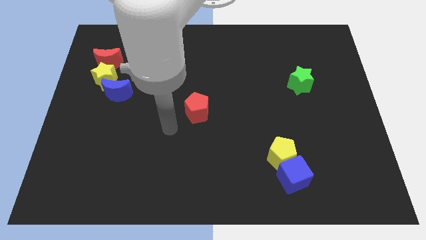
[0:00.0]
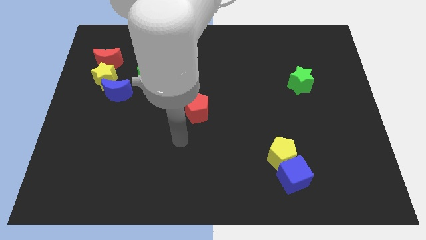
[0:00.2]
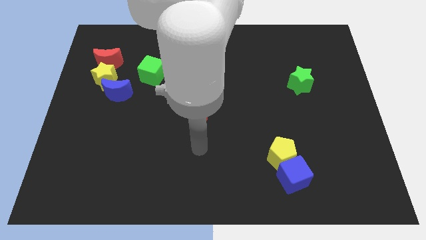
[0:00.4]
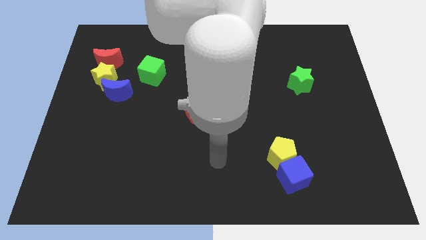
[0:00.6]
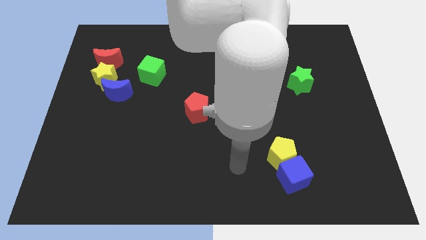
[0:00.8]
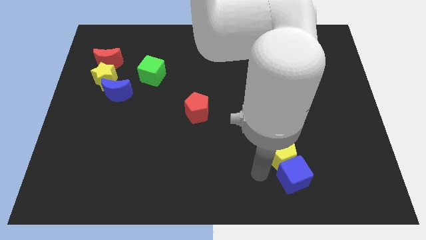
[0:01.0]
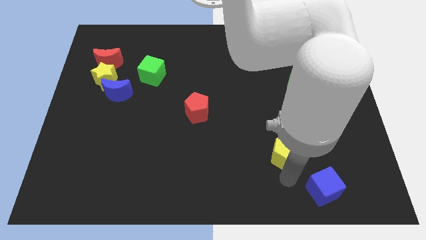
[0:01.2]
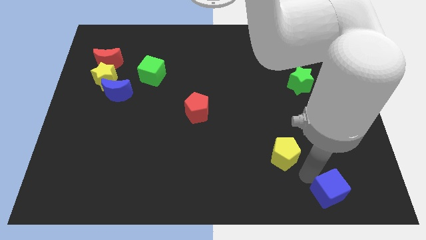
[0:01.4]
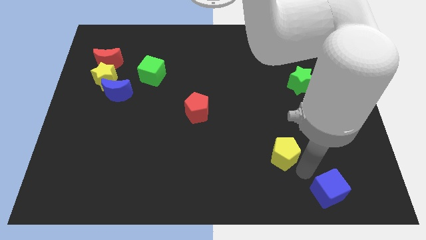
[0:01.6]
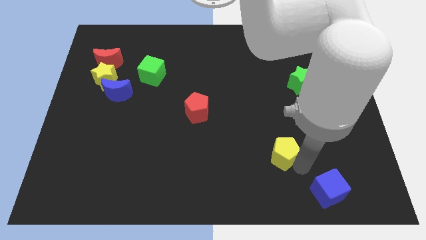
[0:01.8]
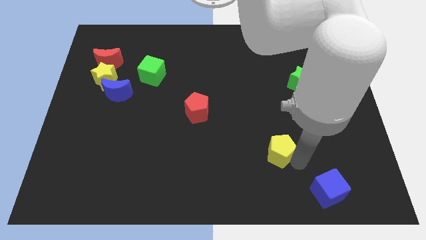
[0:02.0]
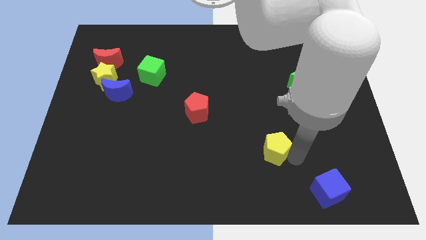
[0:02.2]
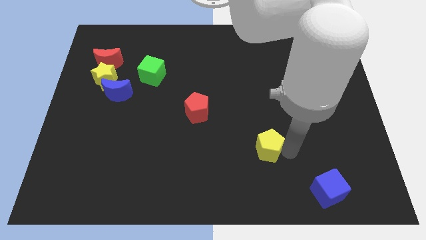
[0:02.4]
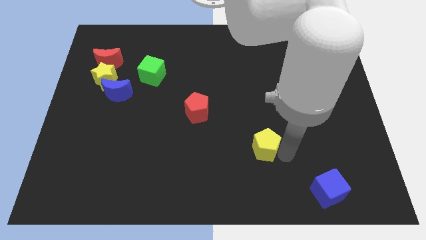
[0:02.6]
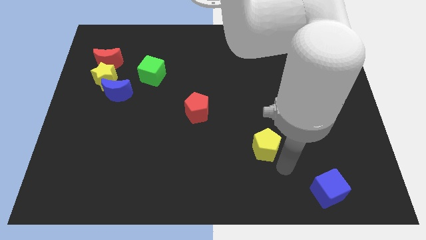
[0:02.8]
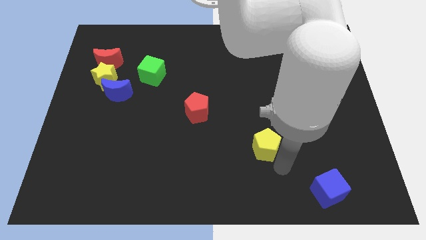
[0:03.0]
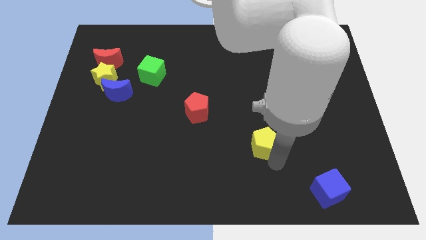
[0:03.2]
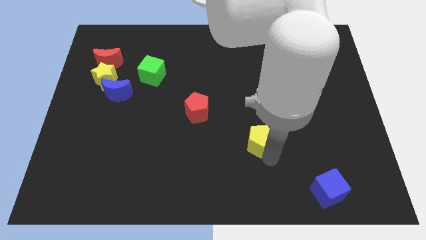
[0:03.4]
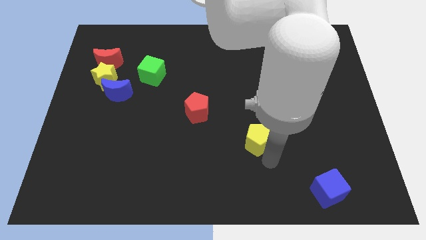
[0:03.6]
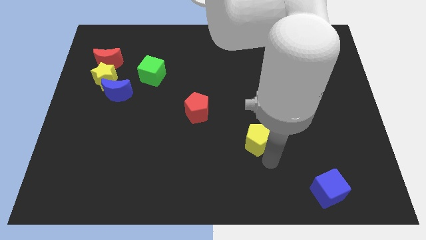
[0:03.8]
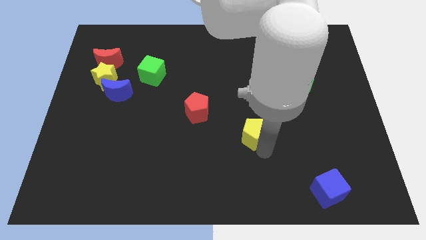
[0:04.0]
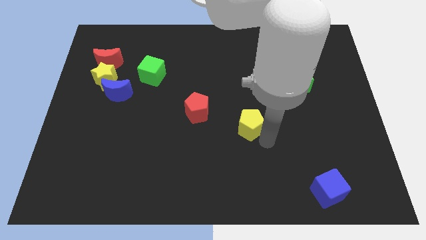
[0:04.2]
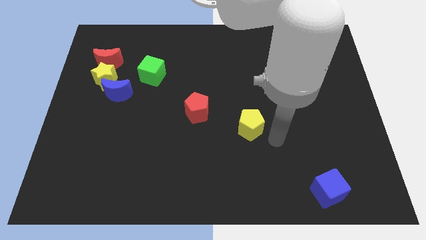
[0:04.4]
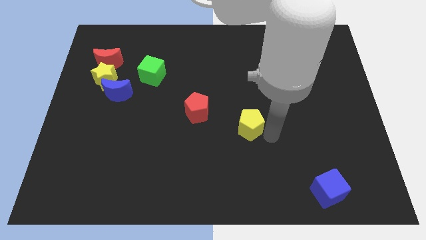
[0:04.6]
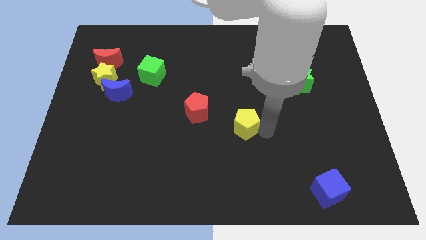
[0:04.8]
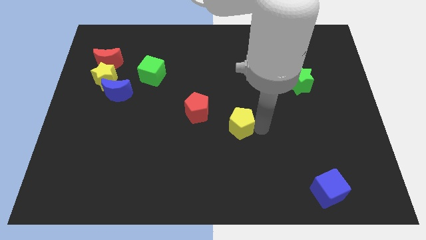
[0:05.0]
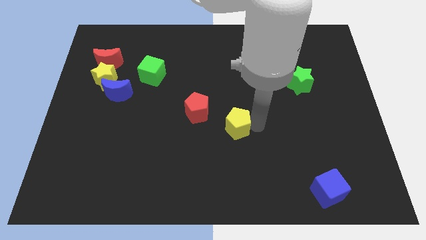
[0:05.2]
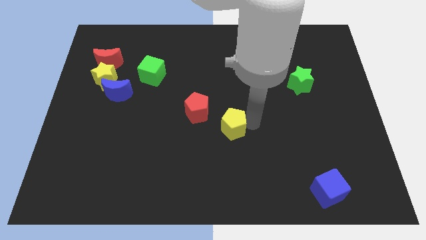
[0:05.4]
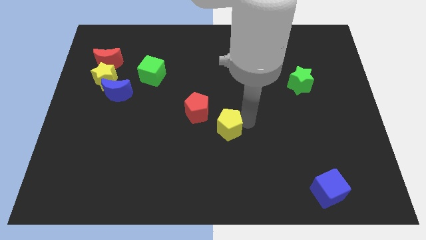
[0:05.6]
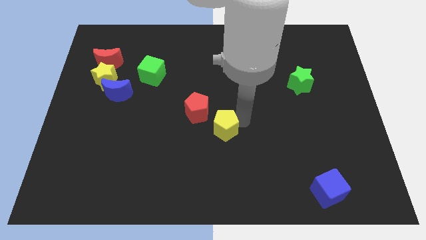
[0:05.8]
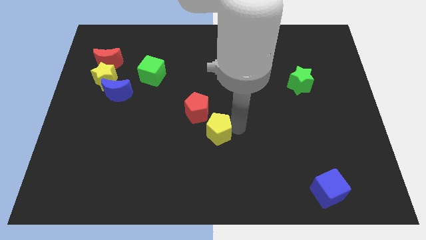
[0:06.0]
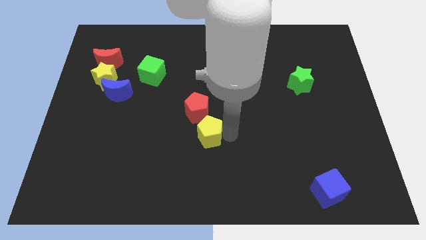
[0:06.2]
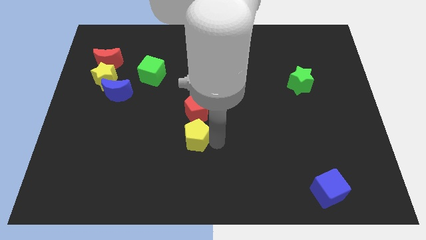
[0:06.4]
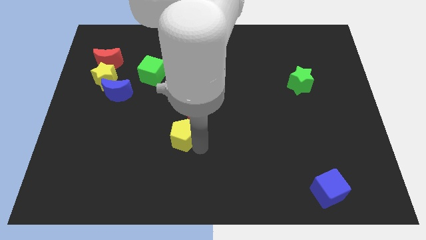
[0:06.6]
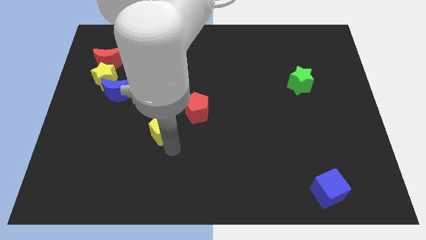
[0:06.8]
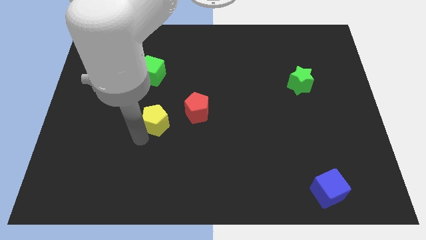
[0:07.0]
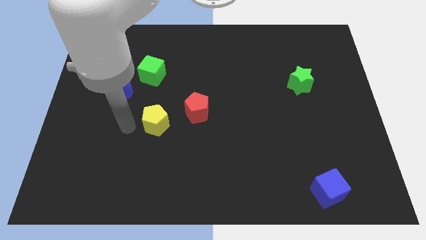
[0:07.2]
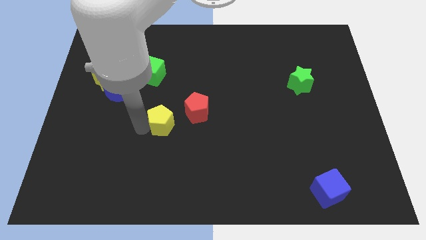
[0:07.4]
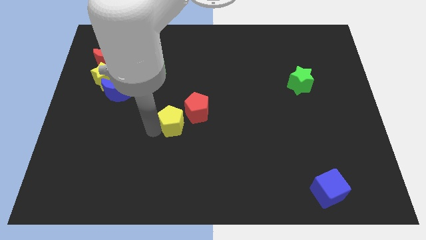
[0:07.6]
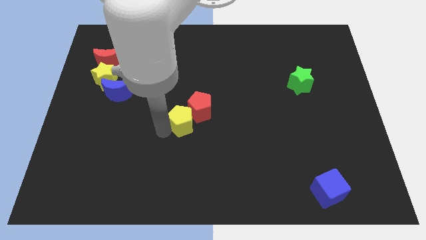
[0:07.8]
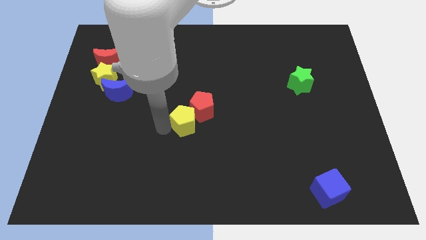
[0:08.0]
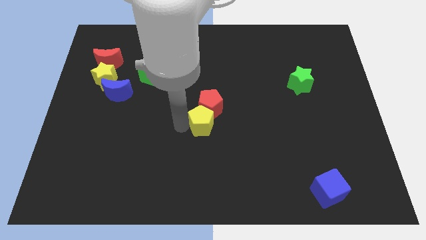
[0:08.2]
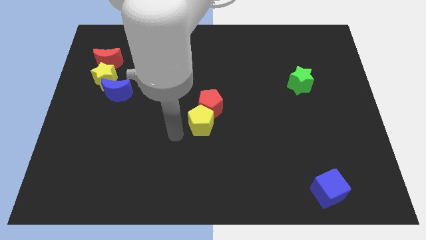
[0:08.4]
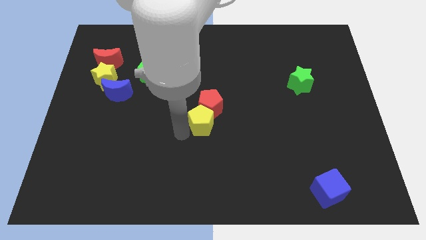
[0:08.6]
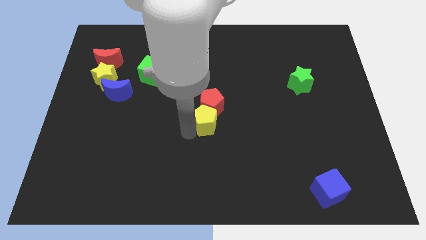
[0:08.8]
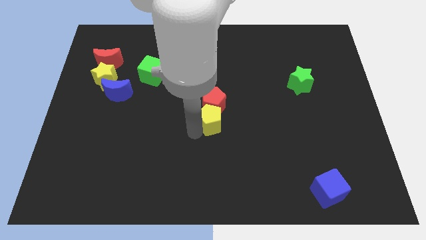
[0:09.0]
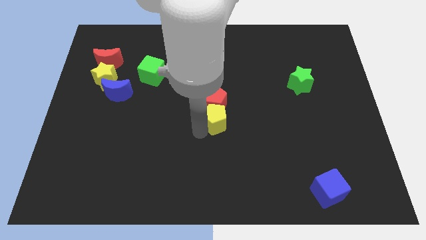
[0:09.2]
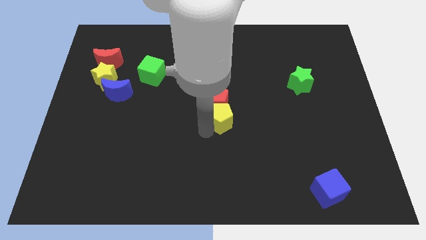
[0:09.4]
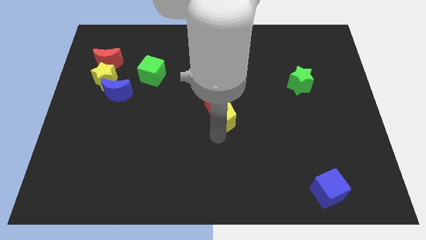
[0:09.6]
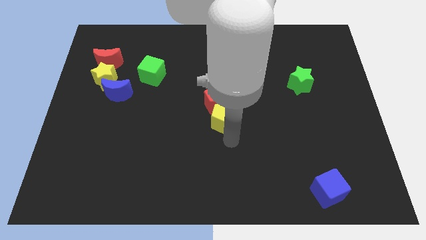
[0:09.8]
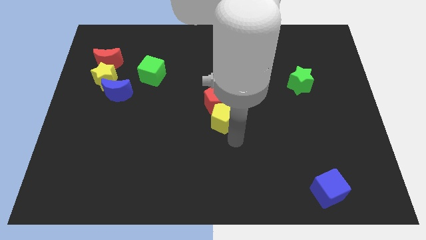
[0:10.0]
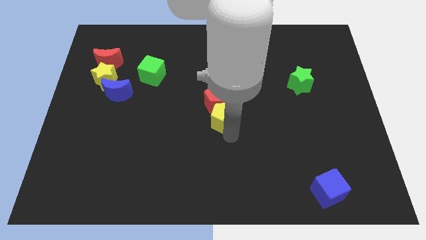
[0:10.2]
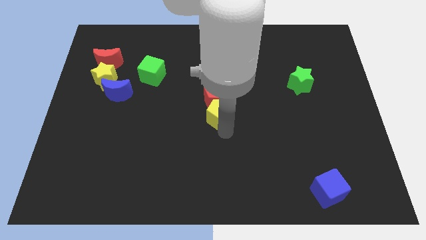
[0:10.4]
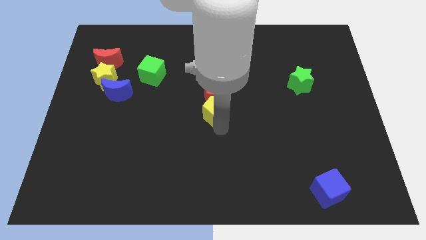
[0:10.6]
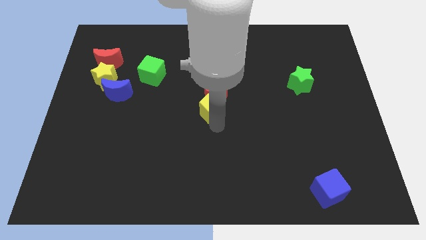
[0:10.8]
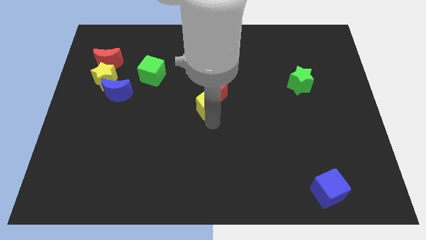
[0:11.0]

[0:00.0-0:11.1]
move the yellow pentagon upwards and then to the left

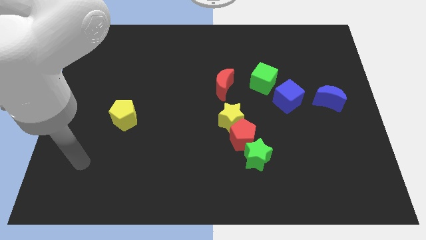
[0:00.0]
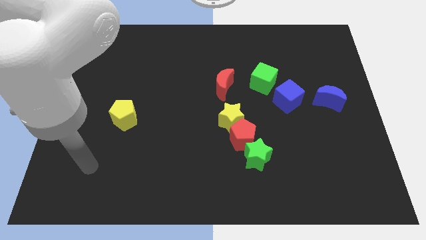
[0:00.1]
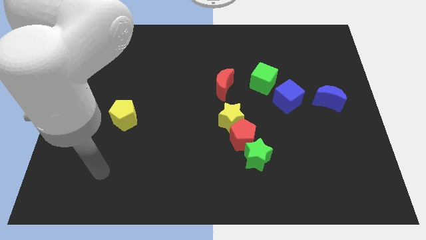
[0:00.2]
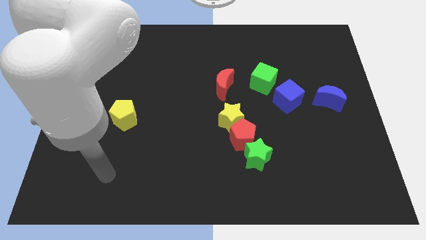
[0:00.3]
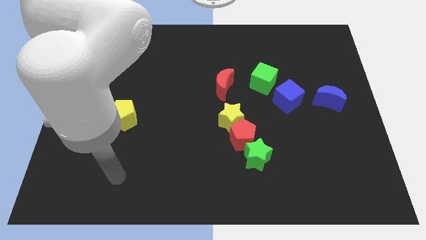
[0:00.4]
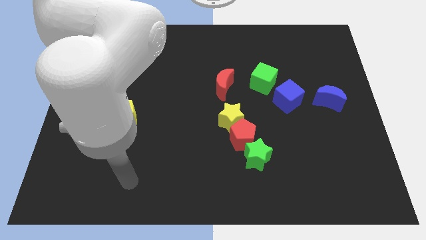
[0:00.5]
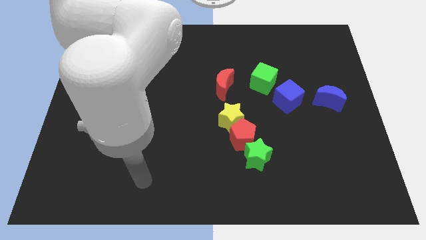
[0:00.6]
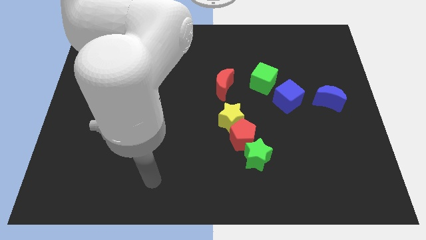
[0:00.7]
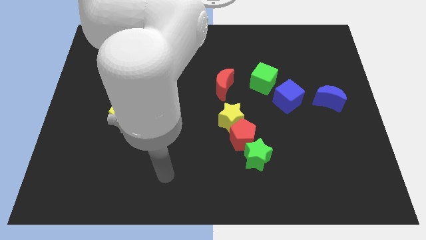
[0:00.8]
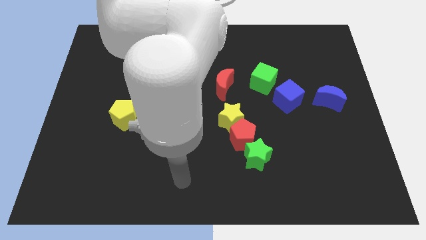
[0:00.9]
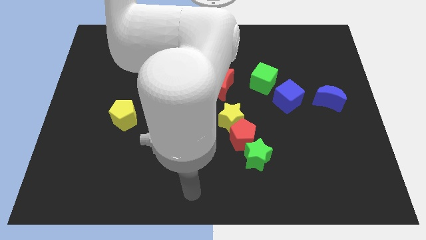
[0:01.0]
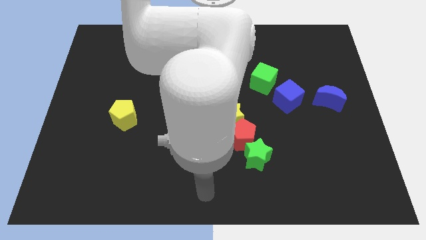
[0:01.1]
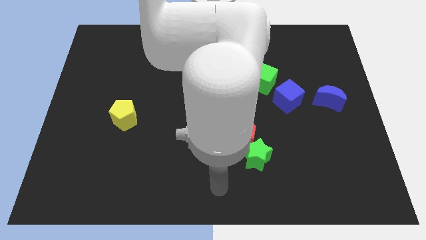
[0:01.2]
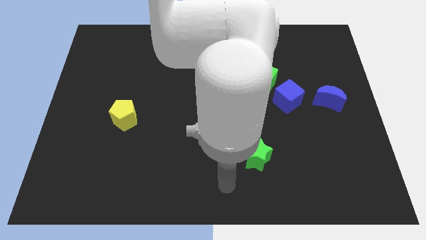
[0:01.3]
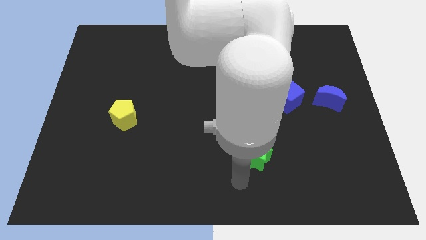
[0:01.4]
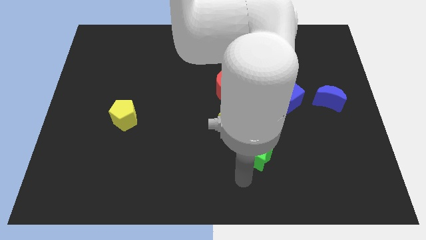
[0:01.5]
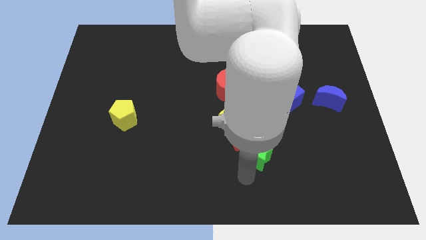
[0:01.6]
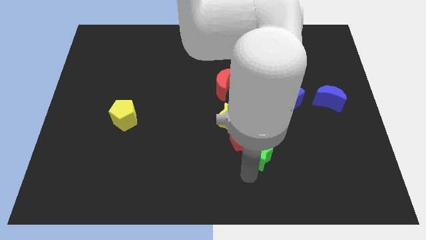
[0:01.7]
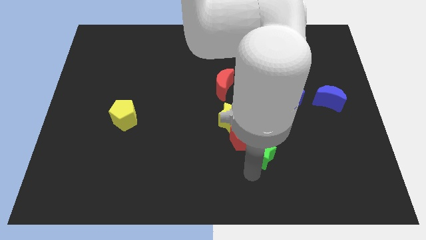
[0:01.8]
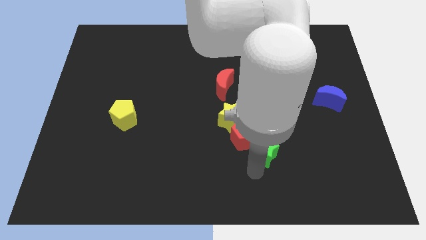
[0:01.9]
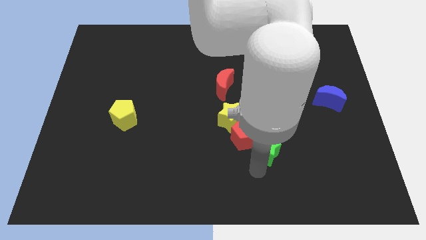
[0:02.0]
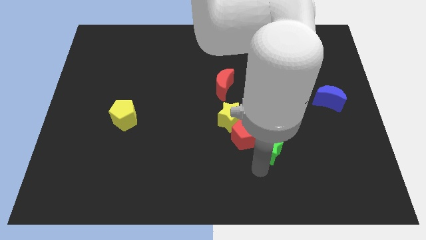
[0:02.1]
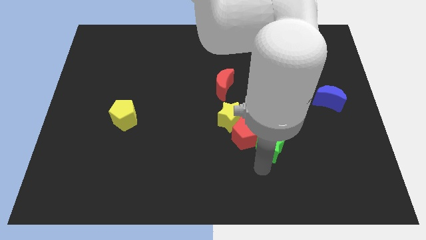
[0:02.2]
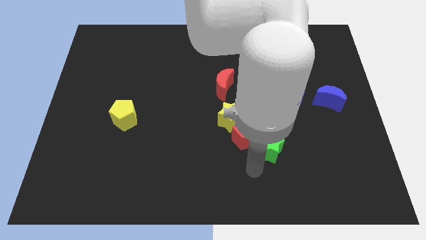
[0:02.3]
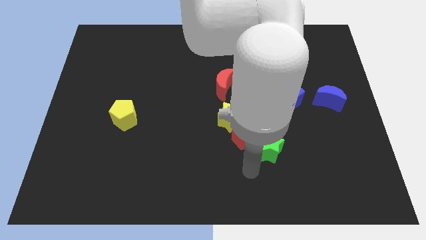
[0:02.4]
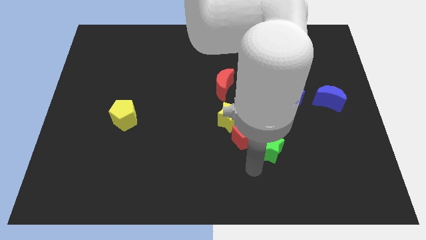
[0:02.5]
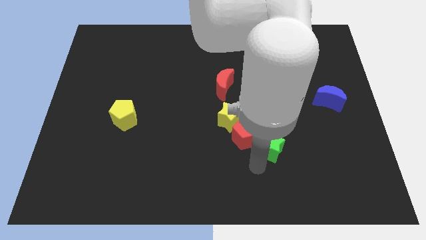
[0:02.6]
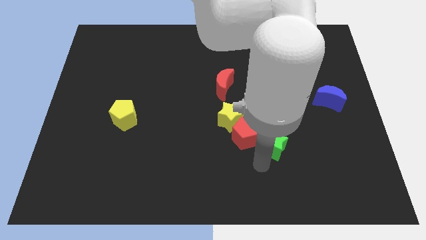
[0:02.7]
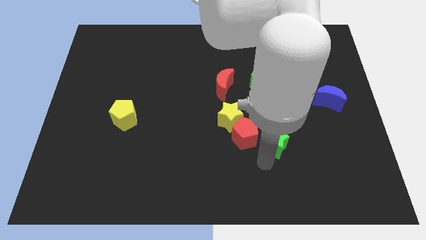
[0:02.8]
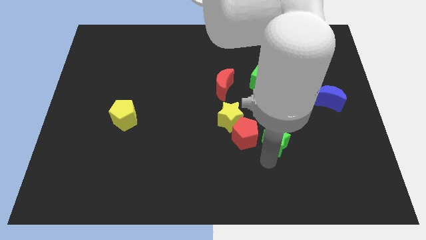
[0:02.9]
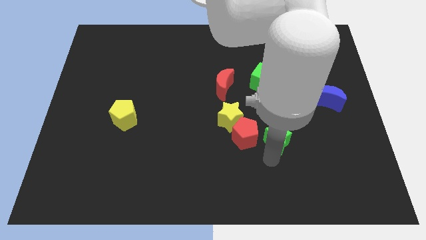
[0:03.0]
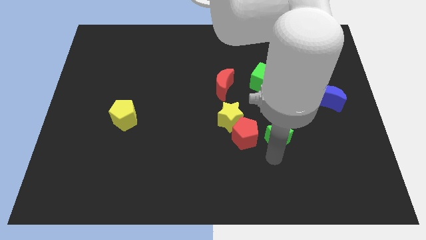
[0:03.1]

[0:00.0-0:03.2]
slide the green star a bit upwards and to the right
